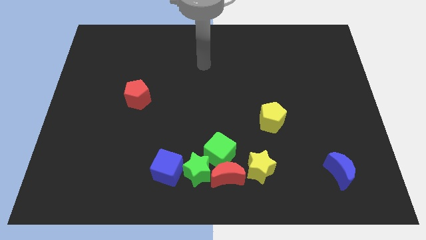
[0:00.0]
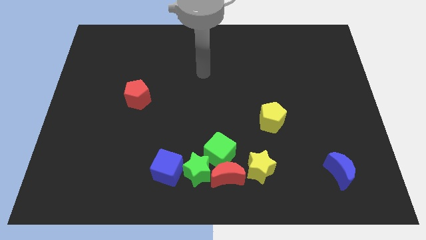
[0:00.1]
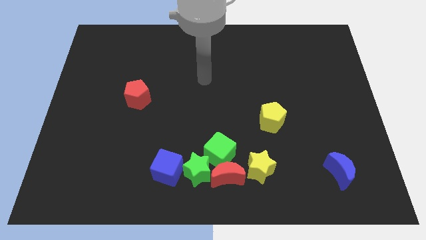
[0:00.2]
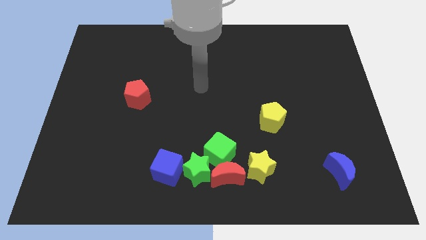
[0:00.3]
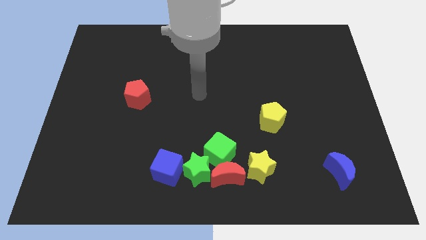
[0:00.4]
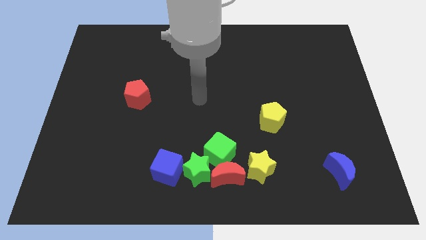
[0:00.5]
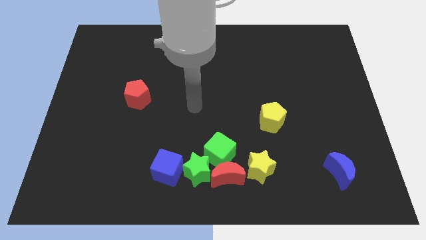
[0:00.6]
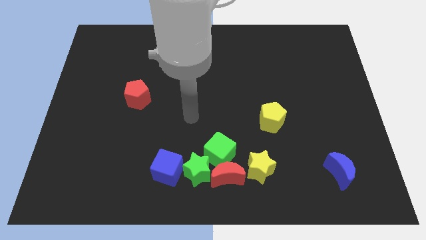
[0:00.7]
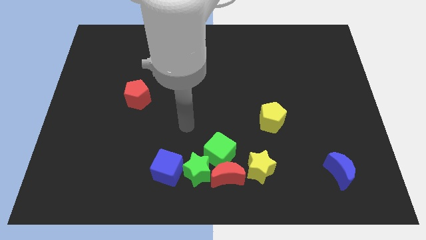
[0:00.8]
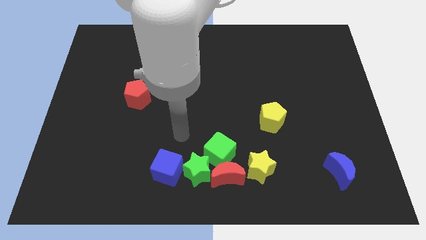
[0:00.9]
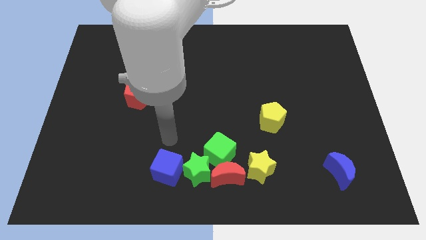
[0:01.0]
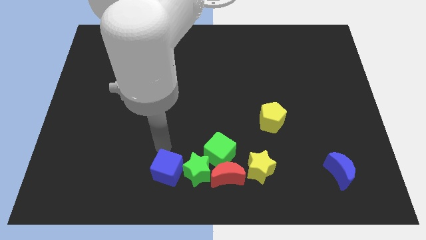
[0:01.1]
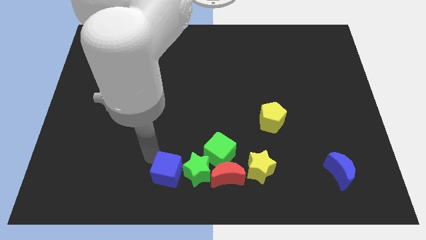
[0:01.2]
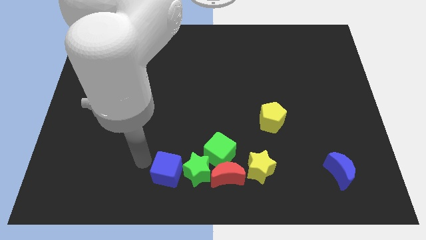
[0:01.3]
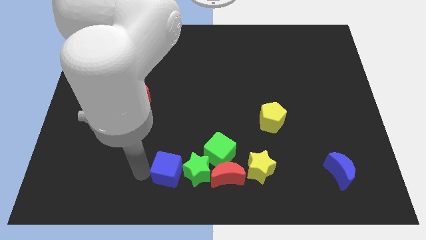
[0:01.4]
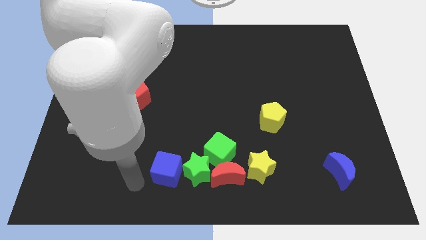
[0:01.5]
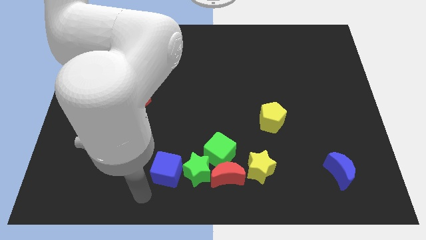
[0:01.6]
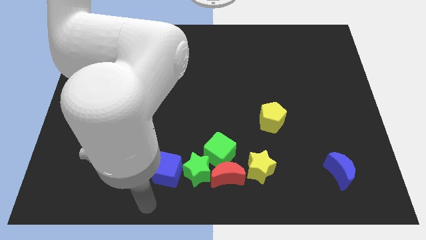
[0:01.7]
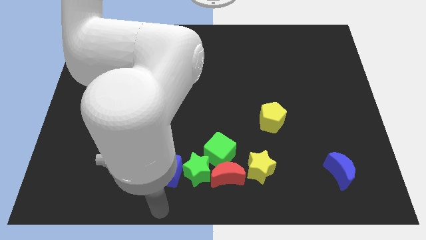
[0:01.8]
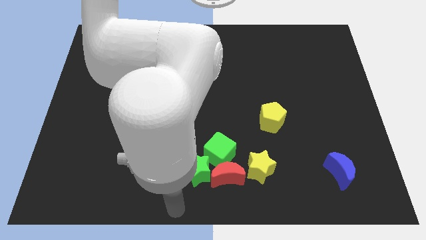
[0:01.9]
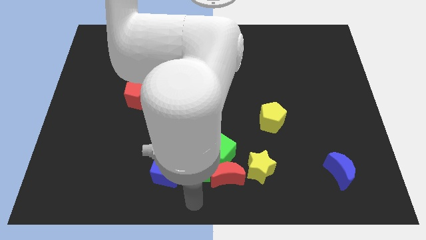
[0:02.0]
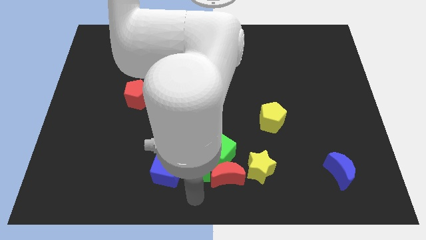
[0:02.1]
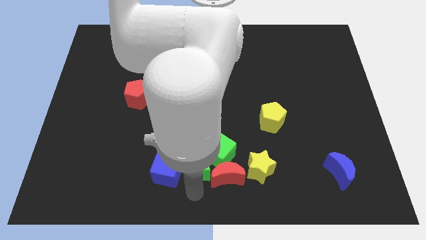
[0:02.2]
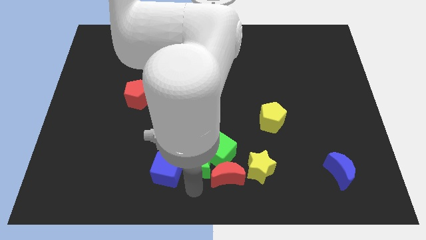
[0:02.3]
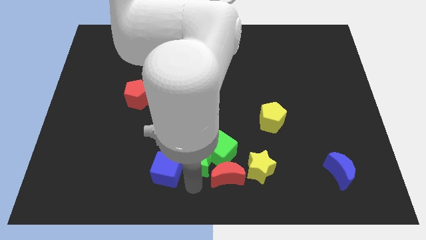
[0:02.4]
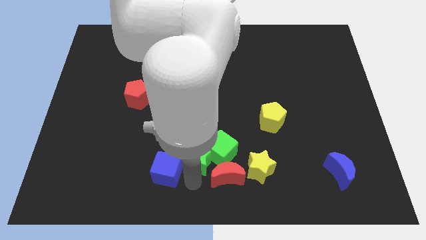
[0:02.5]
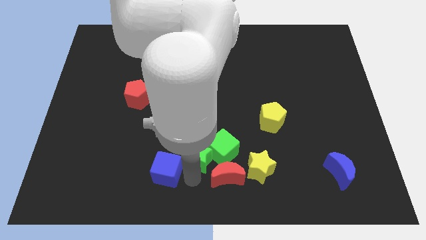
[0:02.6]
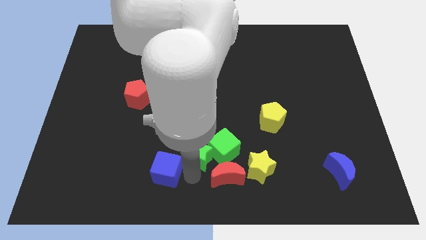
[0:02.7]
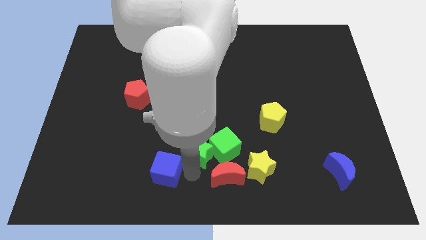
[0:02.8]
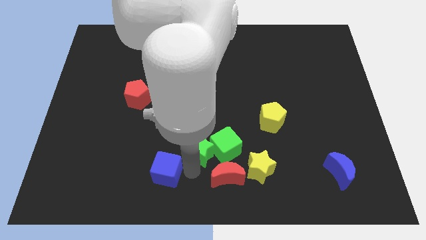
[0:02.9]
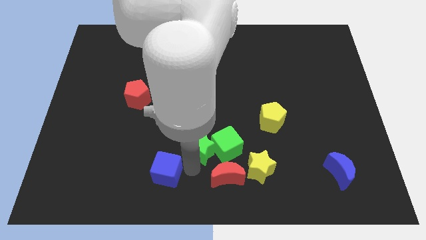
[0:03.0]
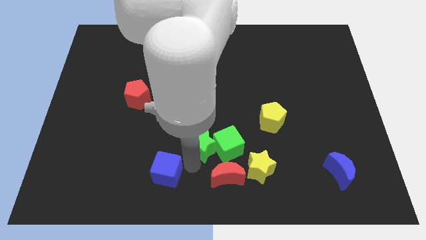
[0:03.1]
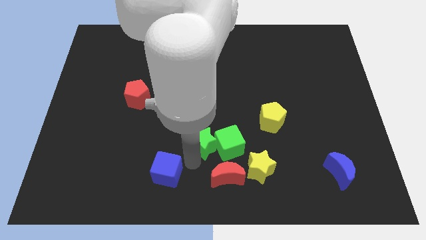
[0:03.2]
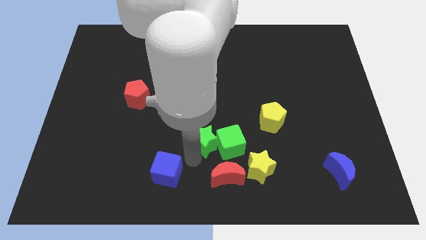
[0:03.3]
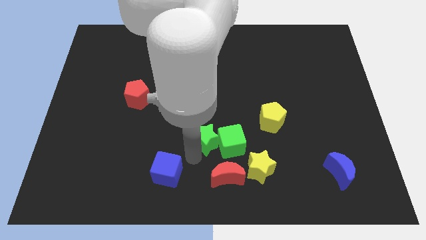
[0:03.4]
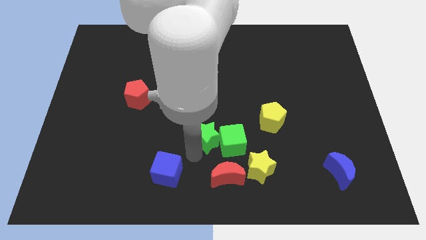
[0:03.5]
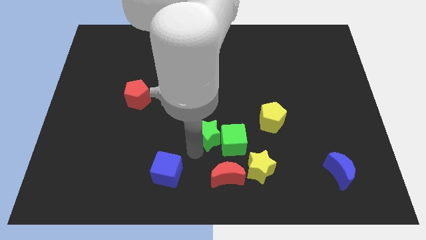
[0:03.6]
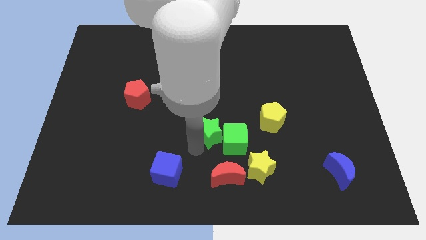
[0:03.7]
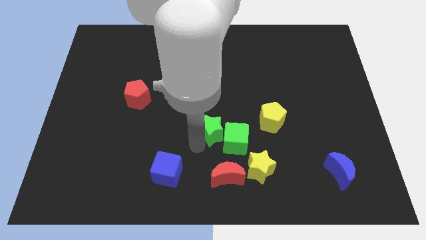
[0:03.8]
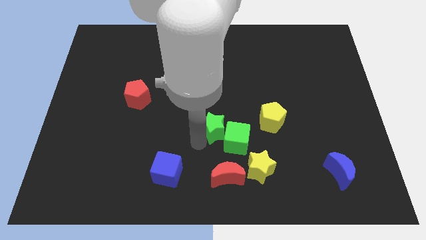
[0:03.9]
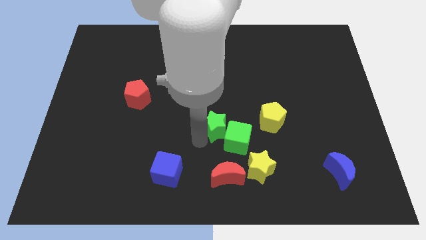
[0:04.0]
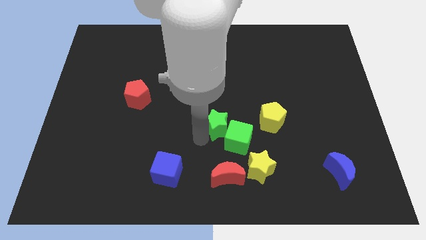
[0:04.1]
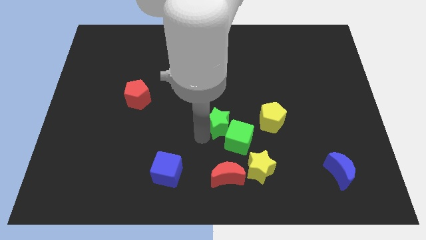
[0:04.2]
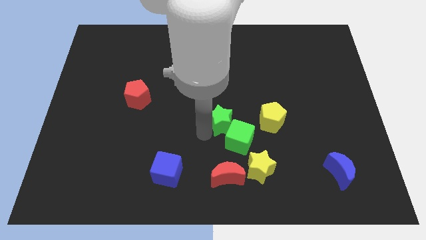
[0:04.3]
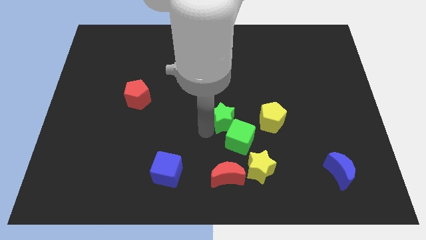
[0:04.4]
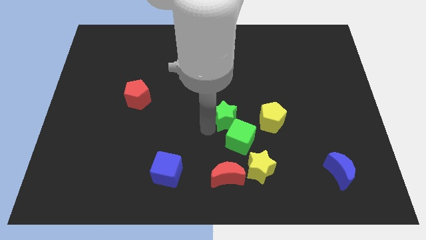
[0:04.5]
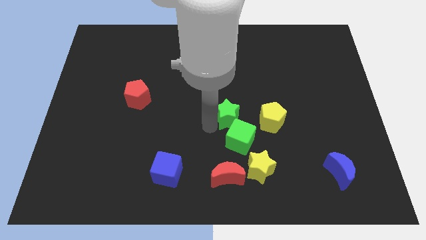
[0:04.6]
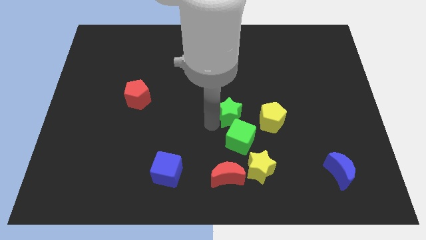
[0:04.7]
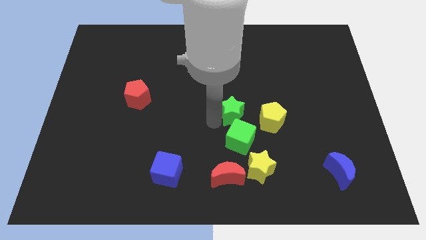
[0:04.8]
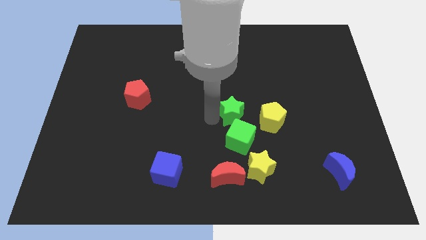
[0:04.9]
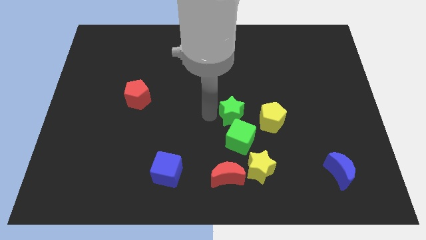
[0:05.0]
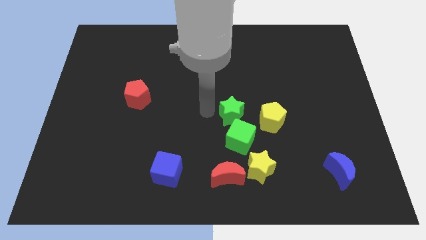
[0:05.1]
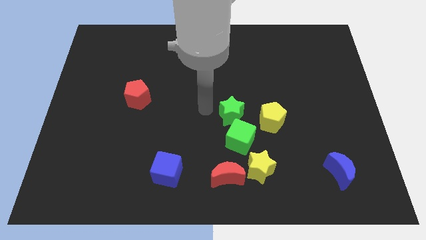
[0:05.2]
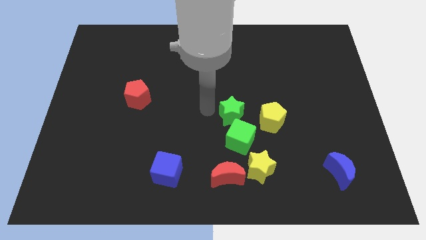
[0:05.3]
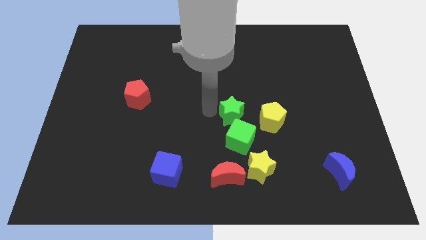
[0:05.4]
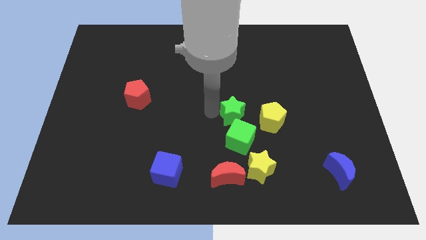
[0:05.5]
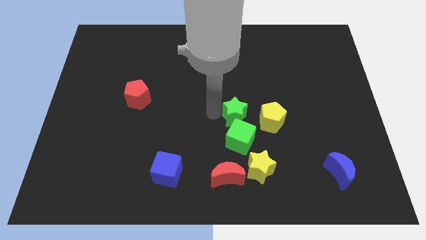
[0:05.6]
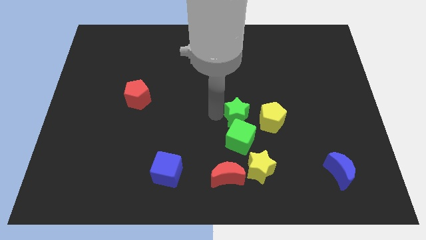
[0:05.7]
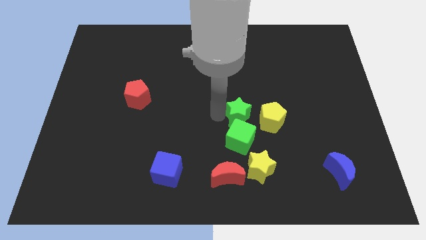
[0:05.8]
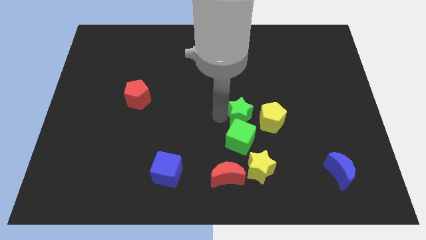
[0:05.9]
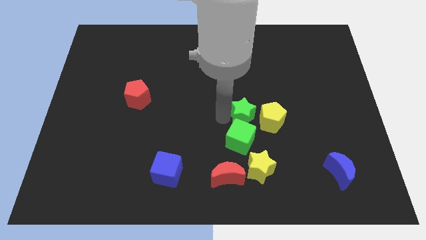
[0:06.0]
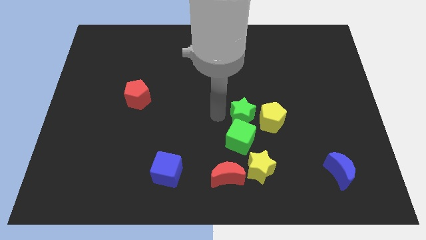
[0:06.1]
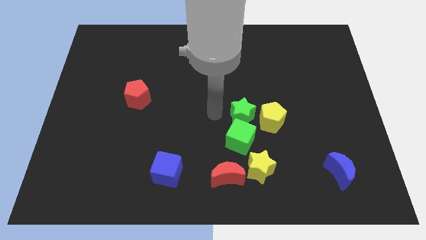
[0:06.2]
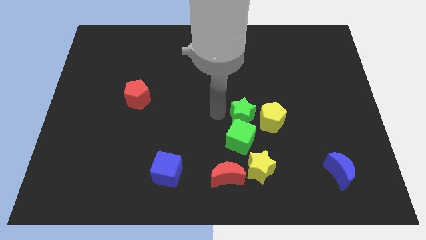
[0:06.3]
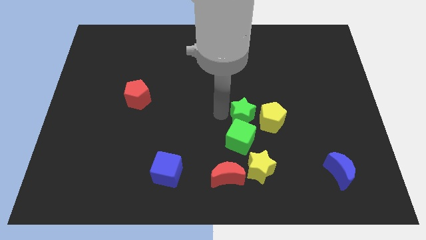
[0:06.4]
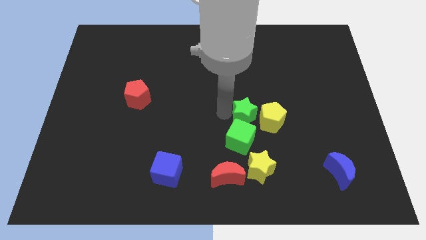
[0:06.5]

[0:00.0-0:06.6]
move the green star to the yellow pentagon

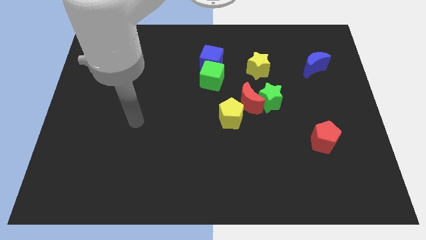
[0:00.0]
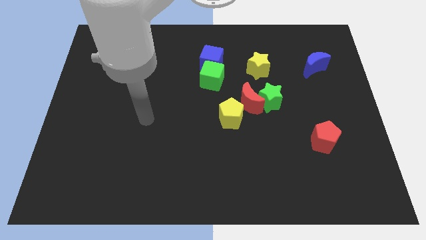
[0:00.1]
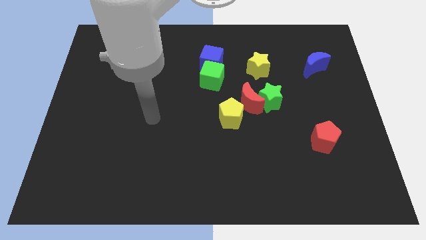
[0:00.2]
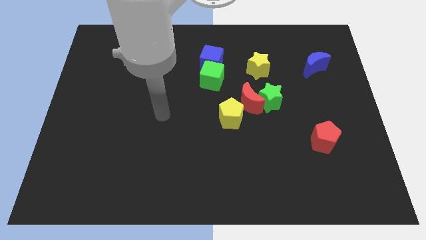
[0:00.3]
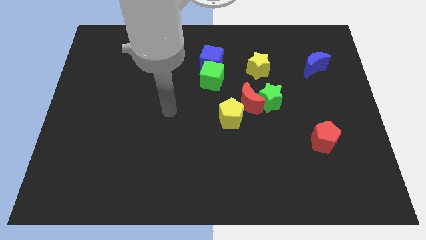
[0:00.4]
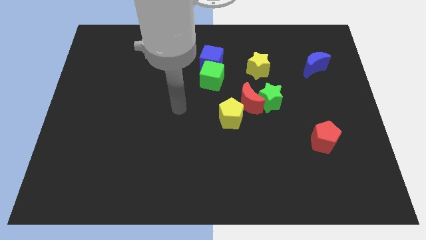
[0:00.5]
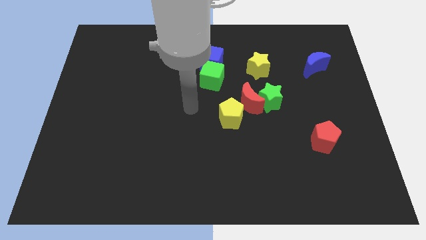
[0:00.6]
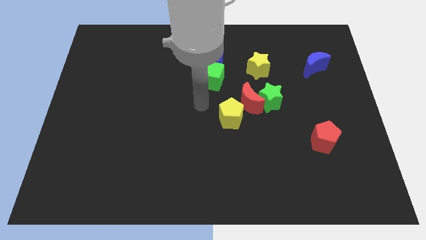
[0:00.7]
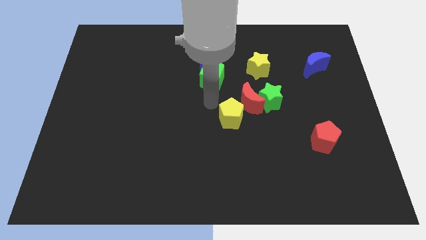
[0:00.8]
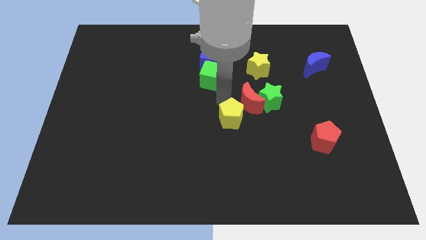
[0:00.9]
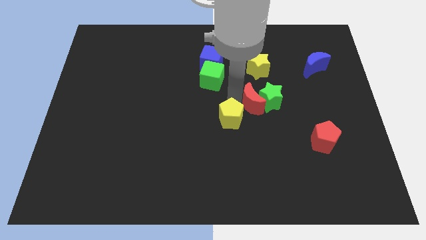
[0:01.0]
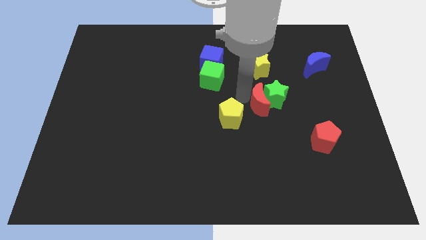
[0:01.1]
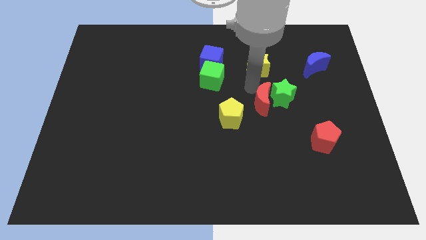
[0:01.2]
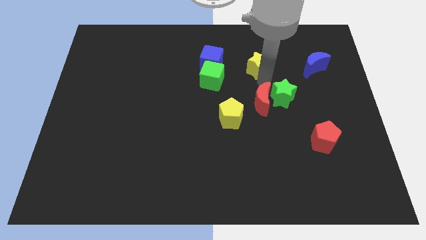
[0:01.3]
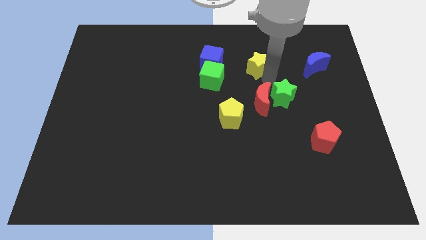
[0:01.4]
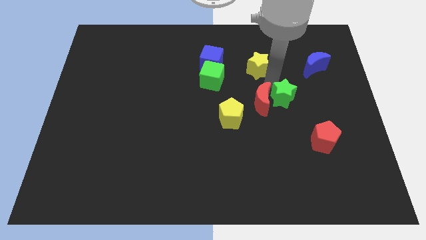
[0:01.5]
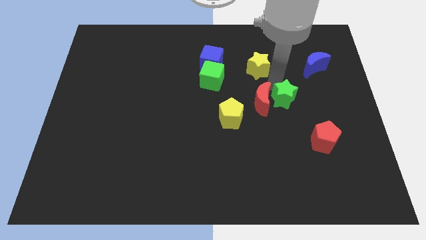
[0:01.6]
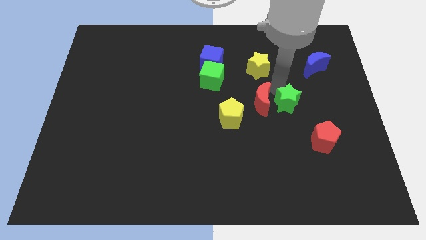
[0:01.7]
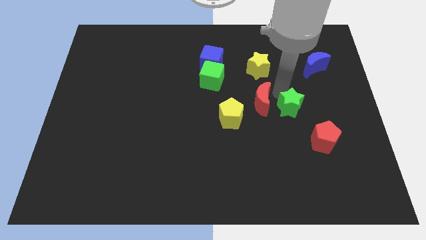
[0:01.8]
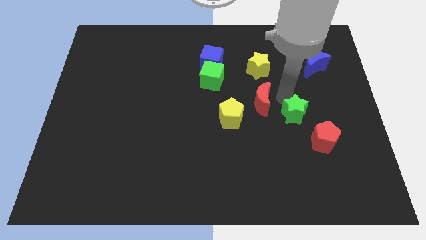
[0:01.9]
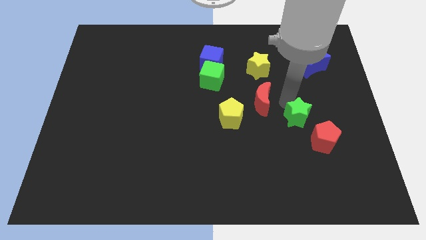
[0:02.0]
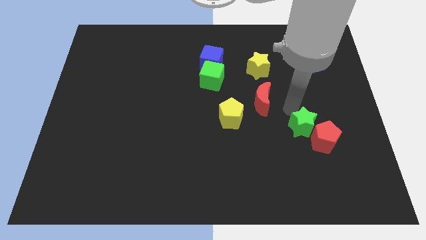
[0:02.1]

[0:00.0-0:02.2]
move the green star to the red pentagon
